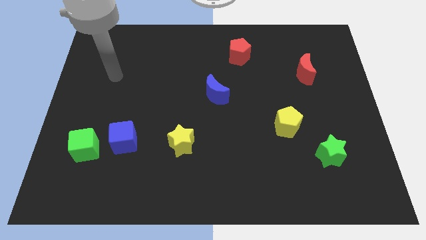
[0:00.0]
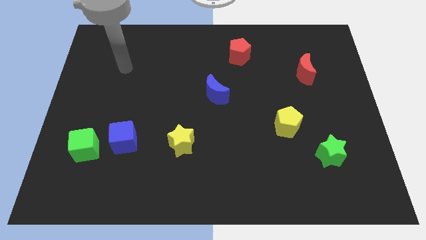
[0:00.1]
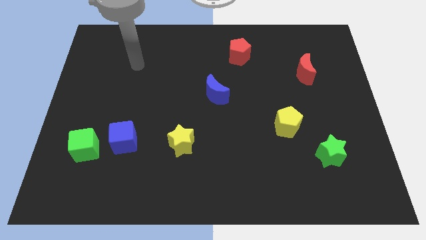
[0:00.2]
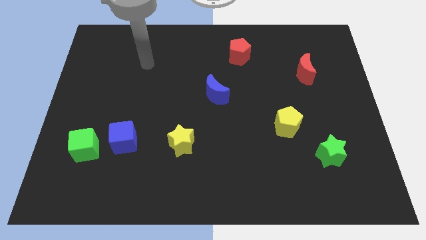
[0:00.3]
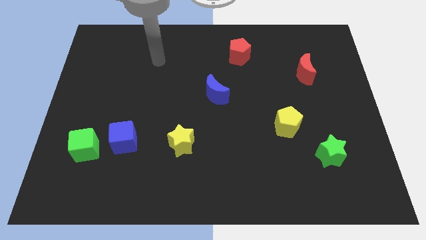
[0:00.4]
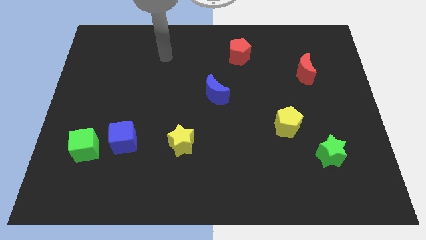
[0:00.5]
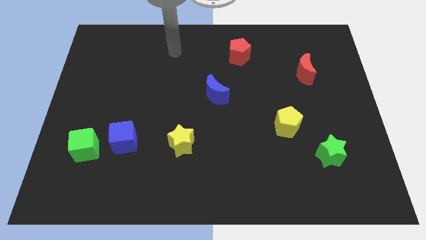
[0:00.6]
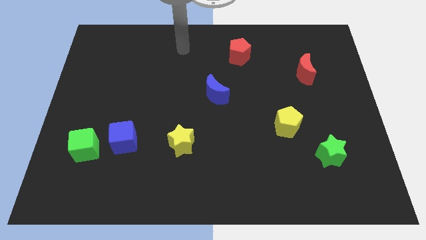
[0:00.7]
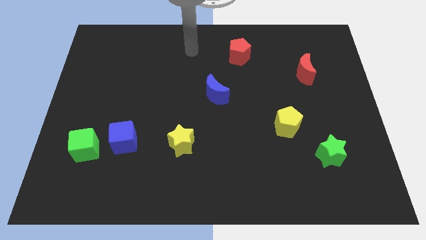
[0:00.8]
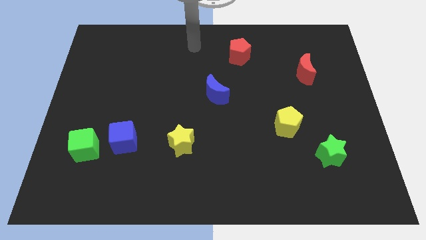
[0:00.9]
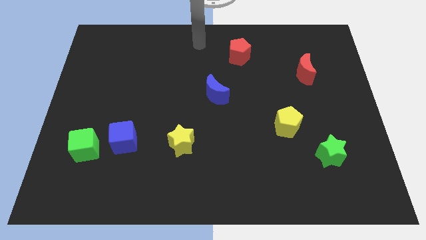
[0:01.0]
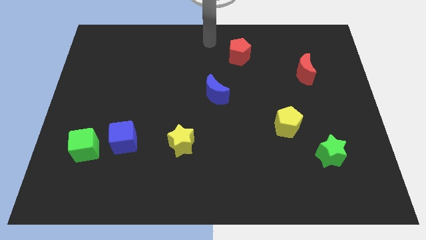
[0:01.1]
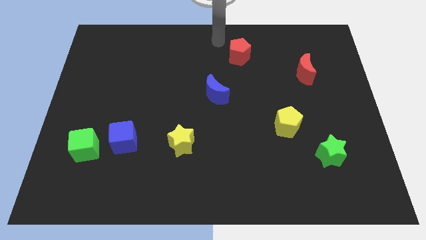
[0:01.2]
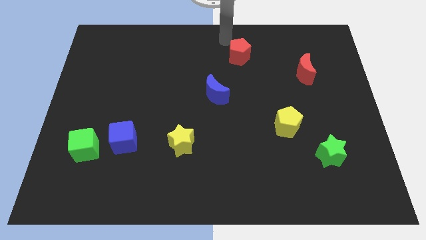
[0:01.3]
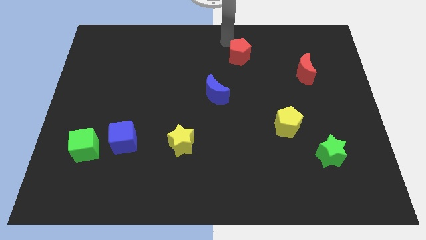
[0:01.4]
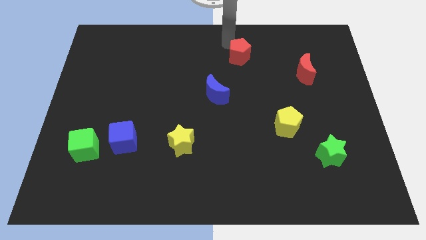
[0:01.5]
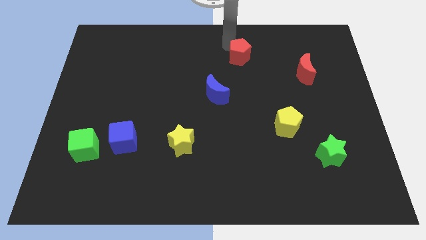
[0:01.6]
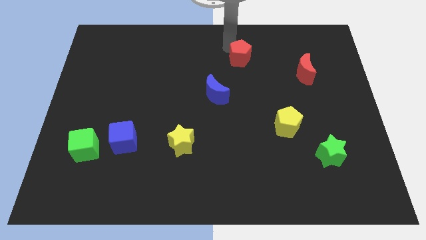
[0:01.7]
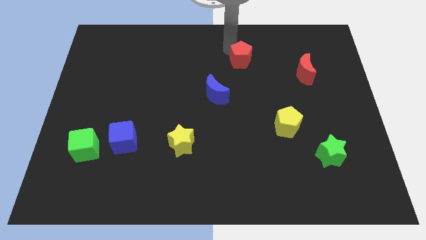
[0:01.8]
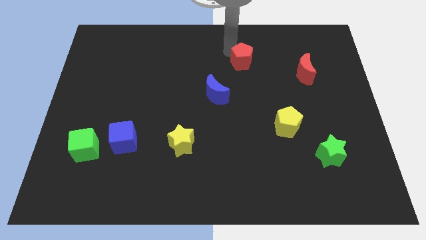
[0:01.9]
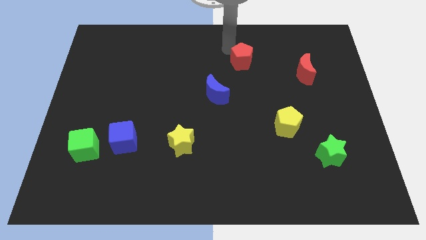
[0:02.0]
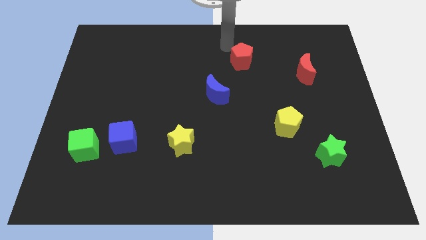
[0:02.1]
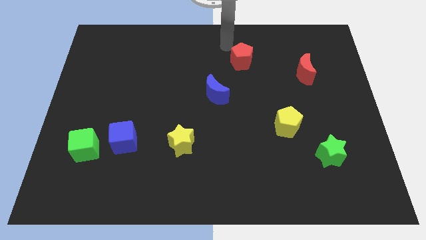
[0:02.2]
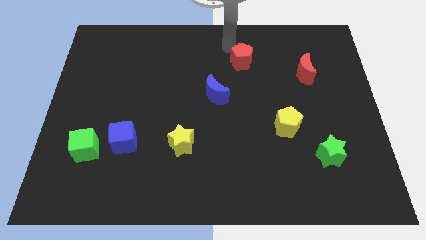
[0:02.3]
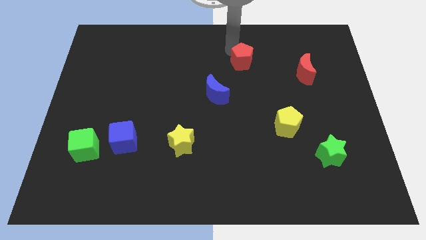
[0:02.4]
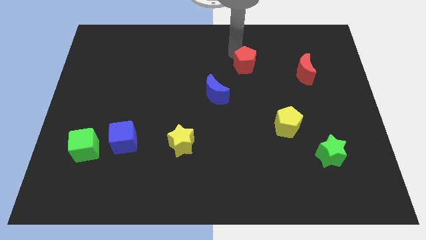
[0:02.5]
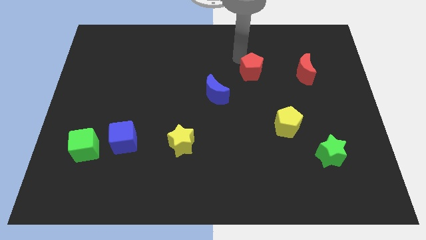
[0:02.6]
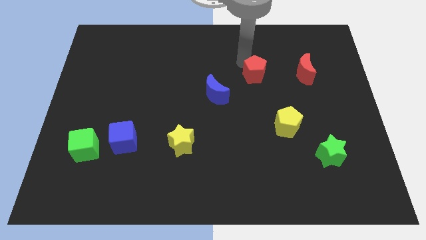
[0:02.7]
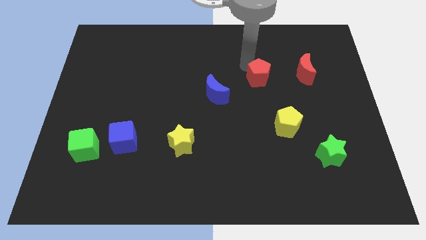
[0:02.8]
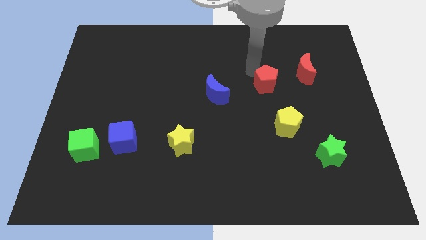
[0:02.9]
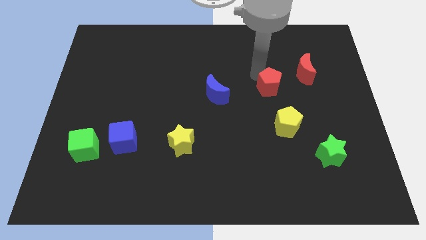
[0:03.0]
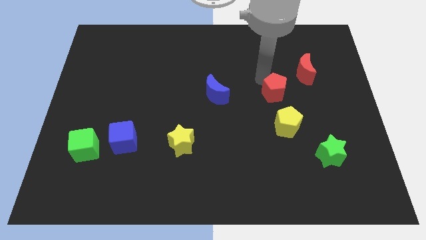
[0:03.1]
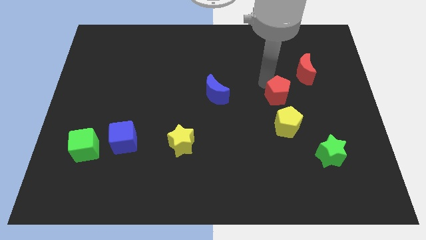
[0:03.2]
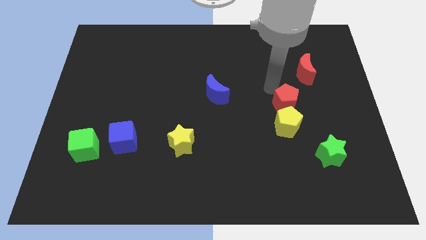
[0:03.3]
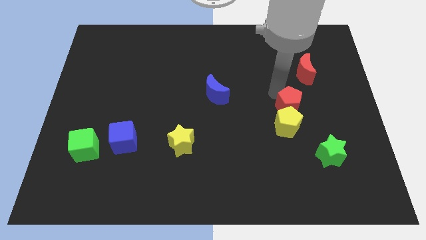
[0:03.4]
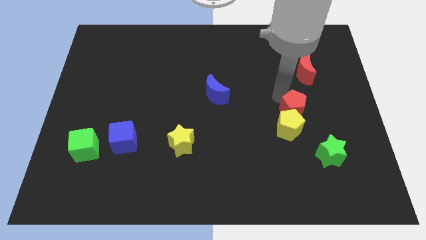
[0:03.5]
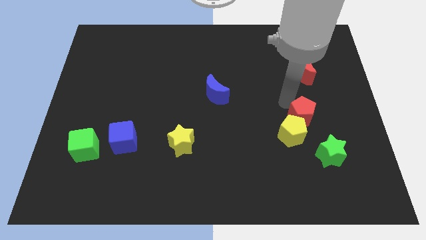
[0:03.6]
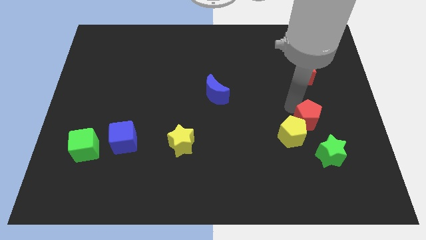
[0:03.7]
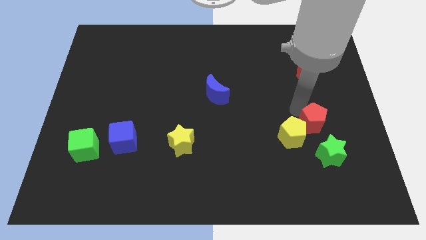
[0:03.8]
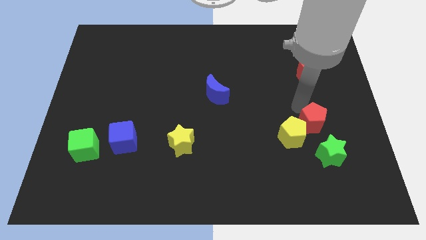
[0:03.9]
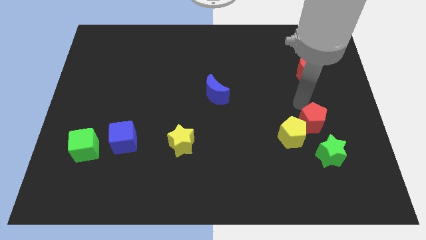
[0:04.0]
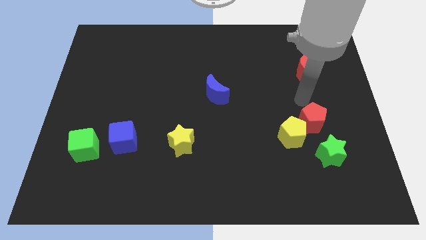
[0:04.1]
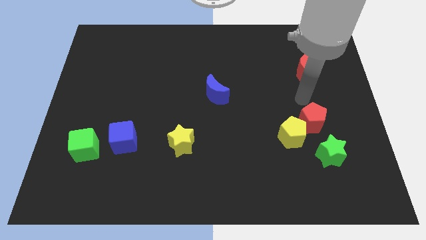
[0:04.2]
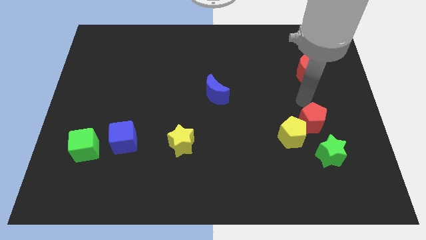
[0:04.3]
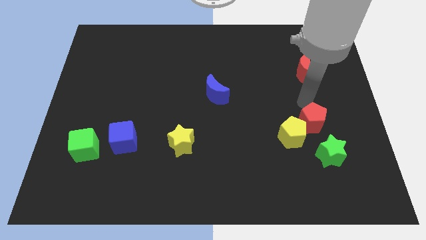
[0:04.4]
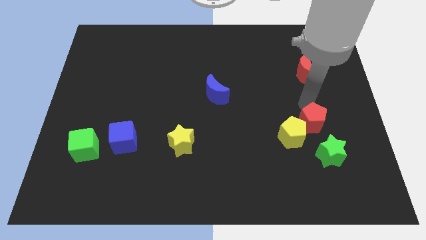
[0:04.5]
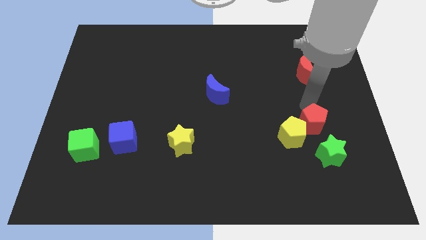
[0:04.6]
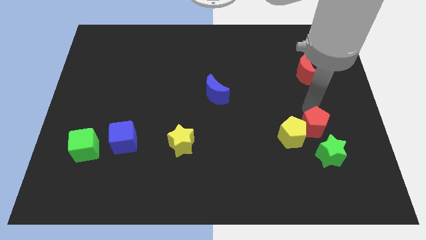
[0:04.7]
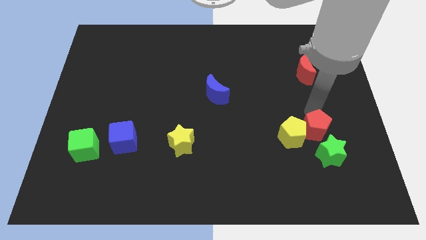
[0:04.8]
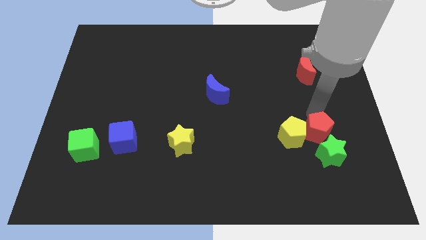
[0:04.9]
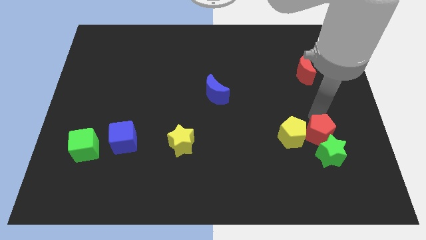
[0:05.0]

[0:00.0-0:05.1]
put the red pentagon next to the green star

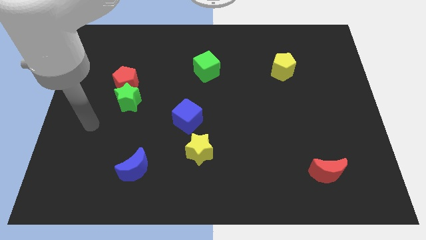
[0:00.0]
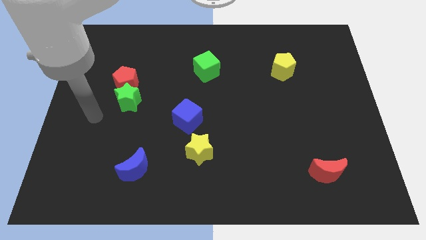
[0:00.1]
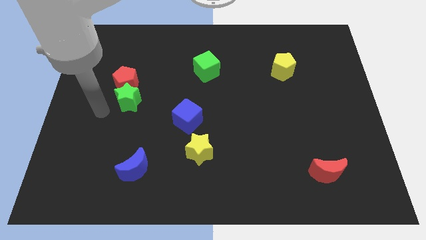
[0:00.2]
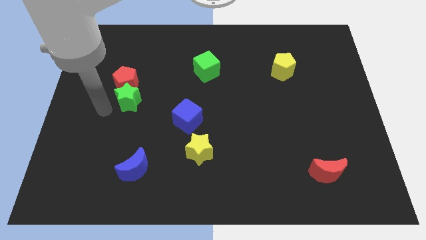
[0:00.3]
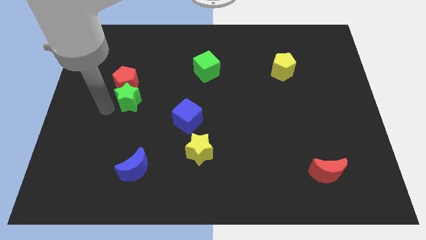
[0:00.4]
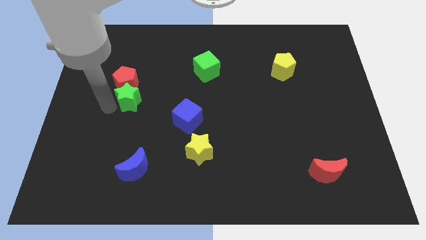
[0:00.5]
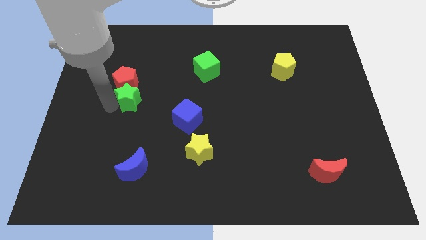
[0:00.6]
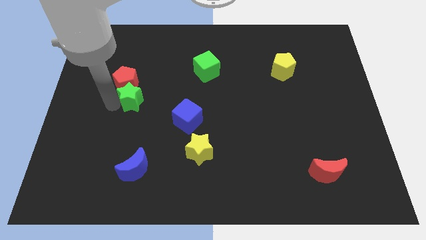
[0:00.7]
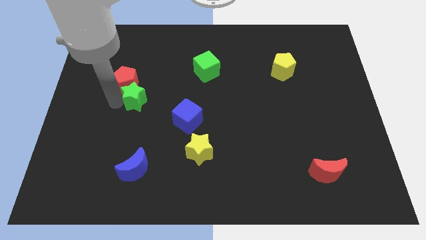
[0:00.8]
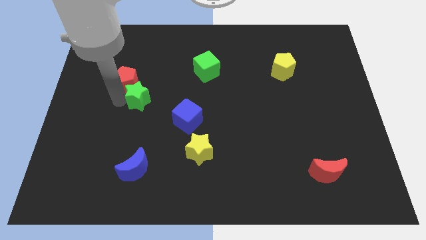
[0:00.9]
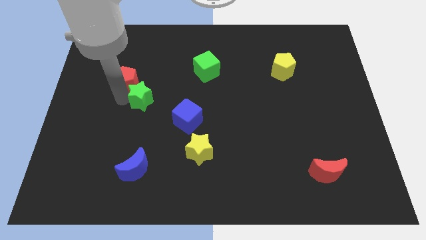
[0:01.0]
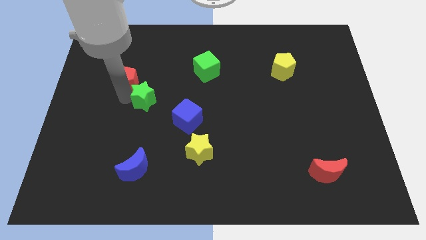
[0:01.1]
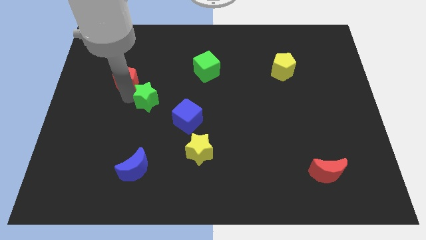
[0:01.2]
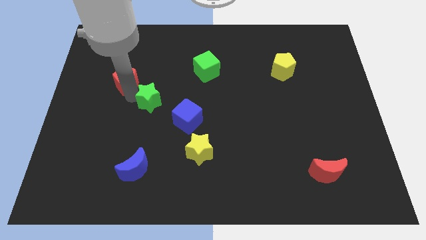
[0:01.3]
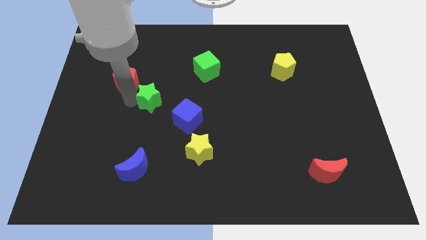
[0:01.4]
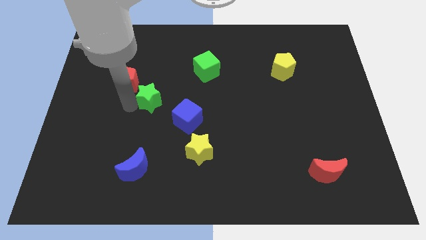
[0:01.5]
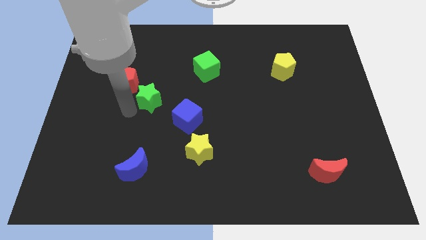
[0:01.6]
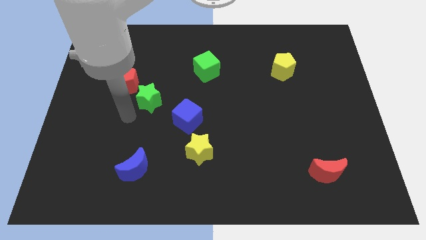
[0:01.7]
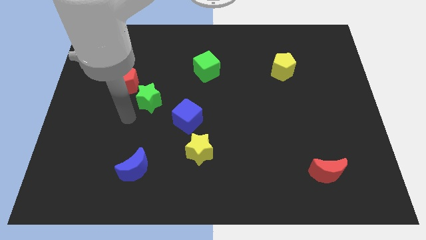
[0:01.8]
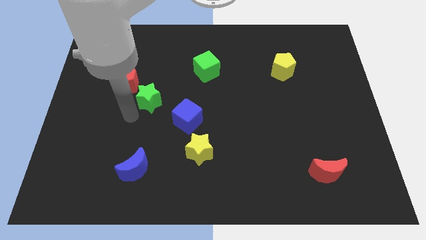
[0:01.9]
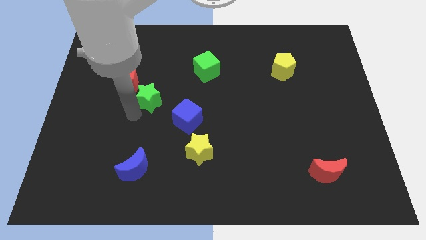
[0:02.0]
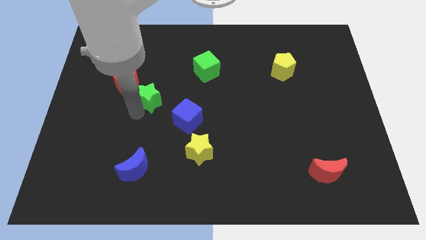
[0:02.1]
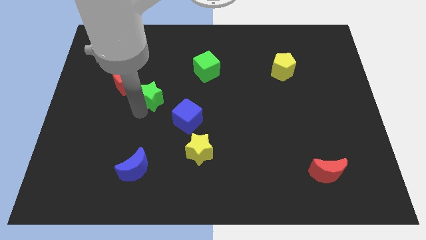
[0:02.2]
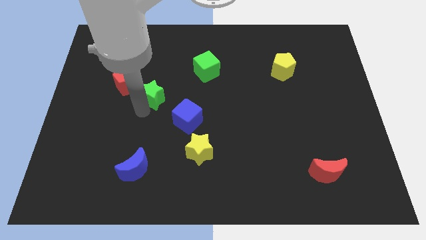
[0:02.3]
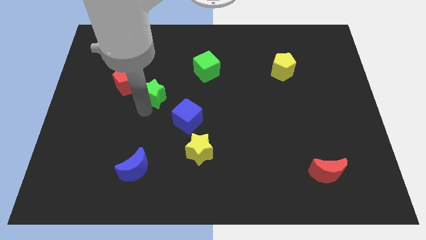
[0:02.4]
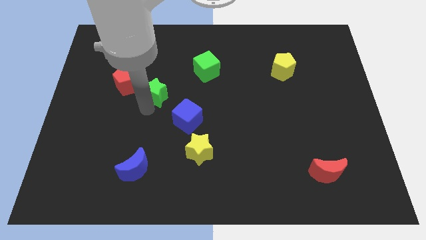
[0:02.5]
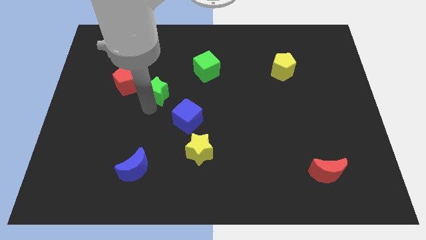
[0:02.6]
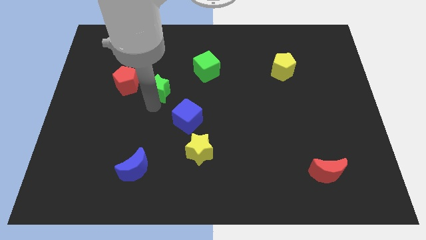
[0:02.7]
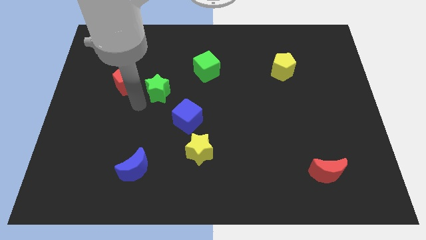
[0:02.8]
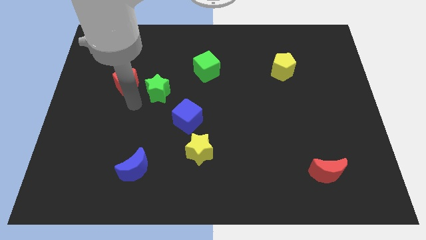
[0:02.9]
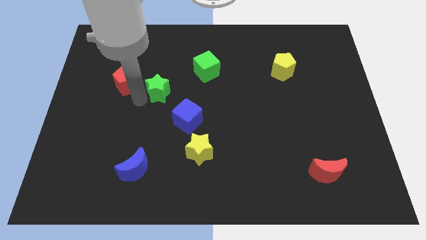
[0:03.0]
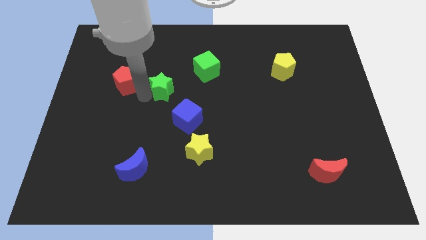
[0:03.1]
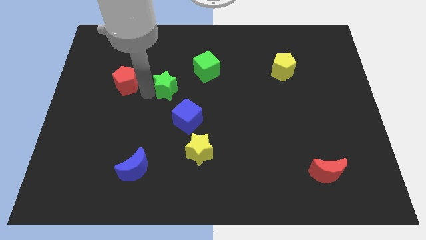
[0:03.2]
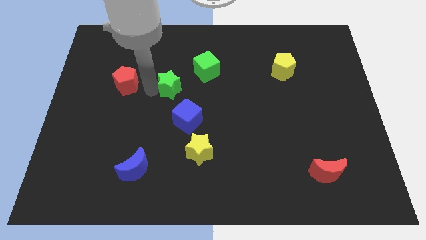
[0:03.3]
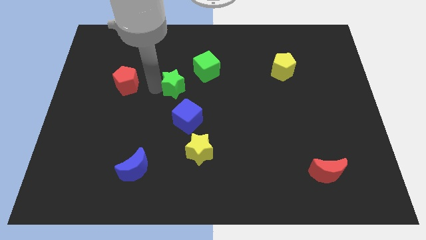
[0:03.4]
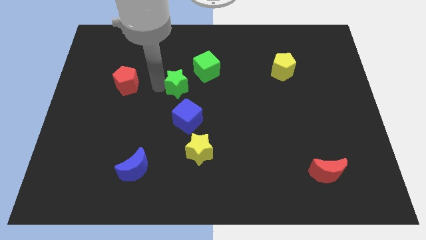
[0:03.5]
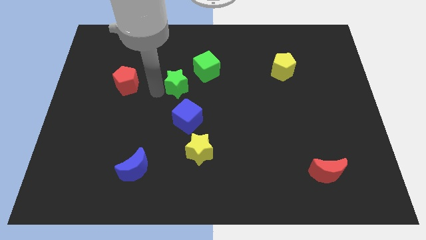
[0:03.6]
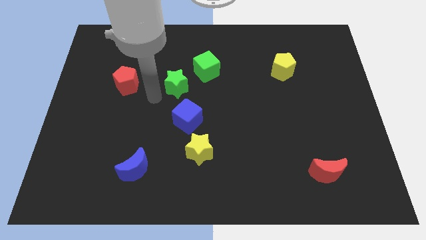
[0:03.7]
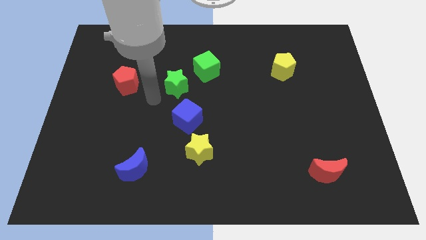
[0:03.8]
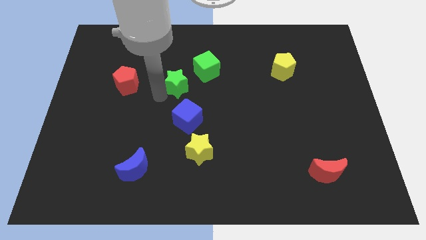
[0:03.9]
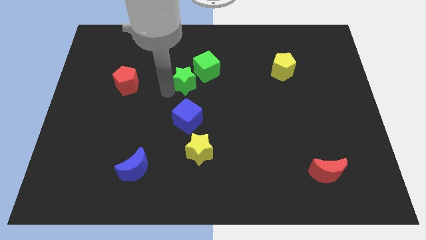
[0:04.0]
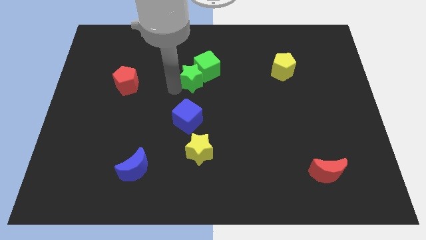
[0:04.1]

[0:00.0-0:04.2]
put the green star next to the green cube
